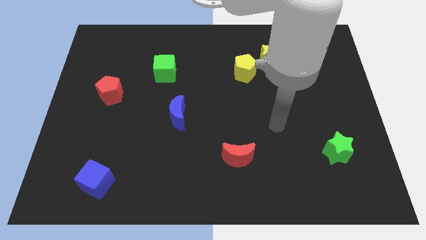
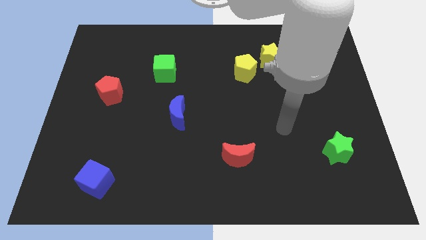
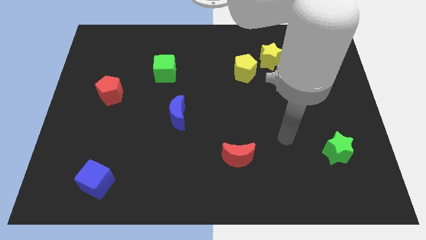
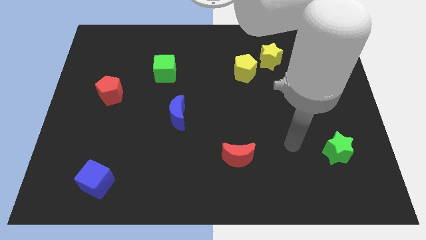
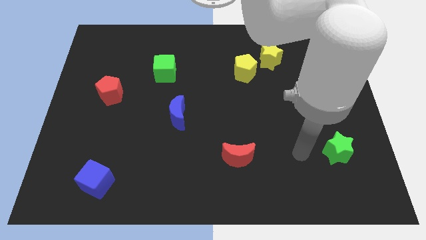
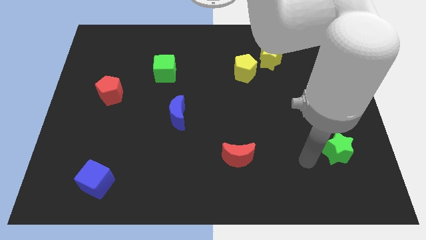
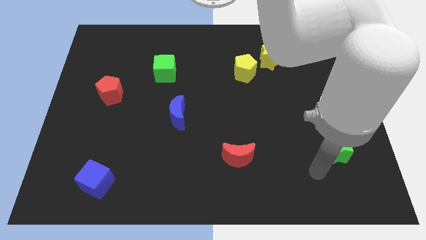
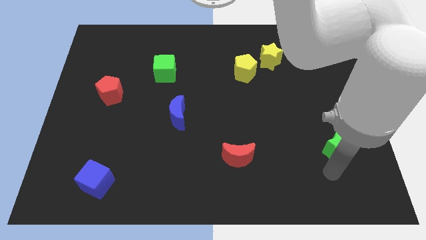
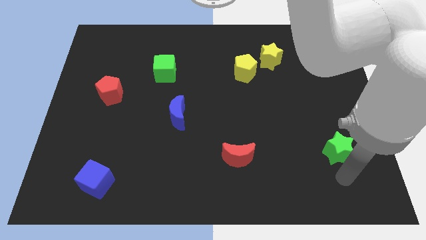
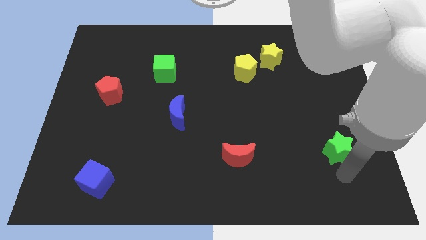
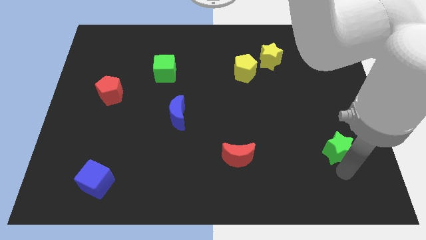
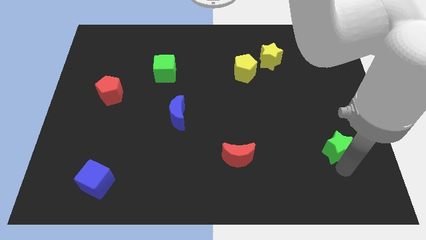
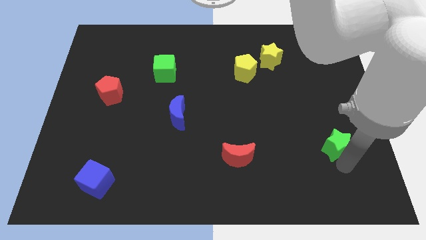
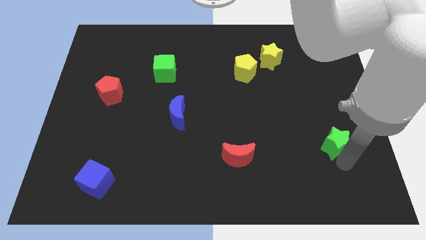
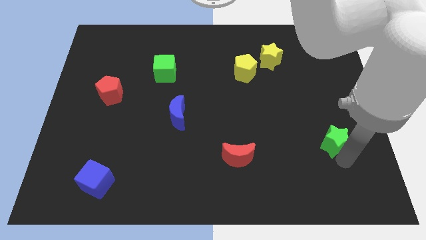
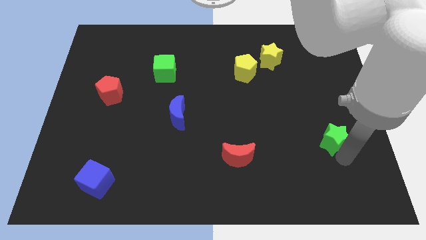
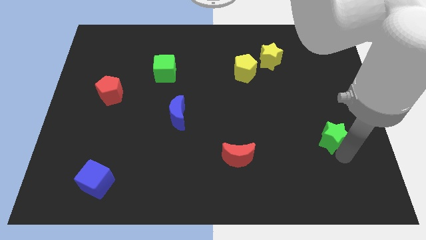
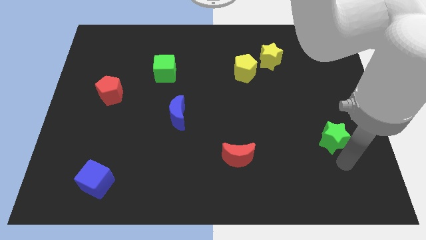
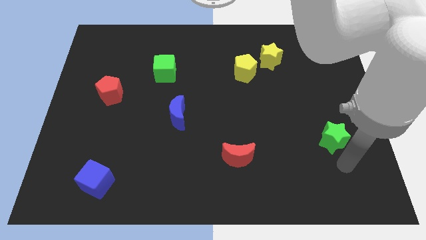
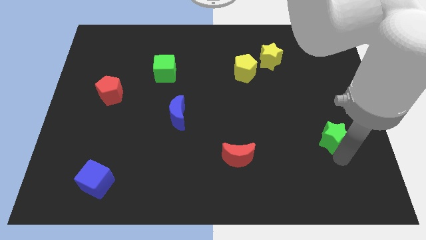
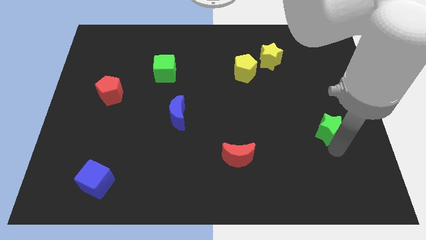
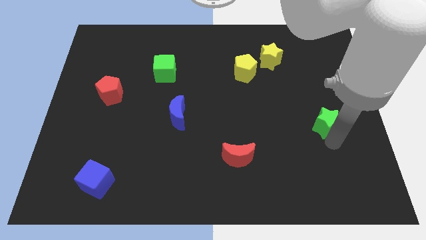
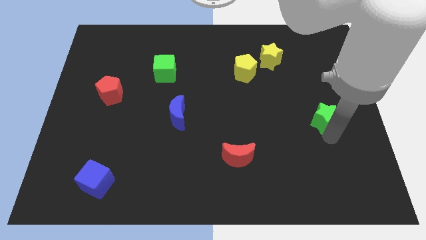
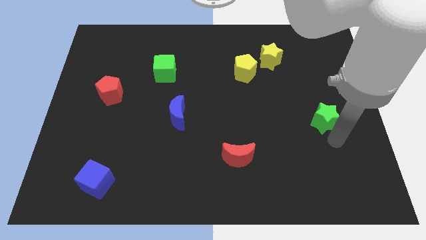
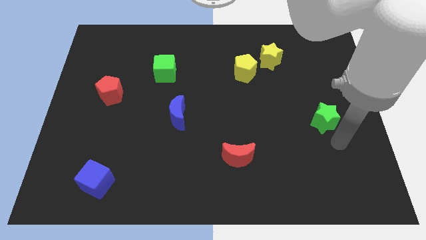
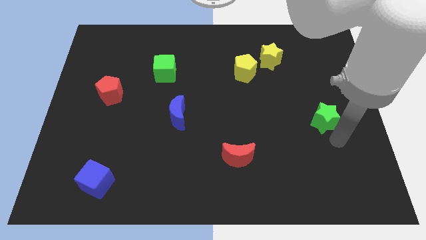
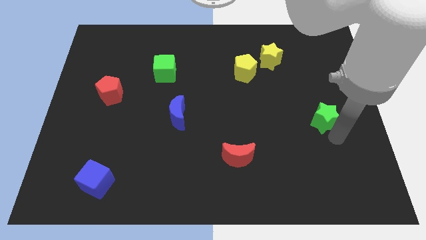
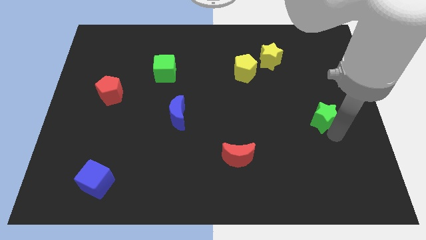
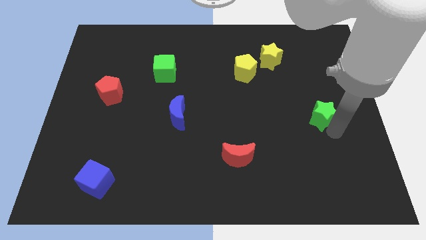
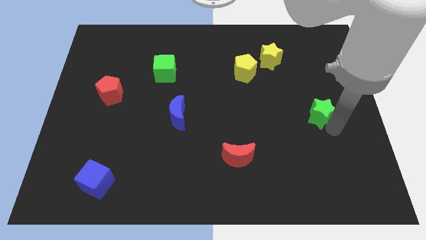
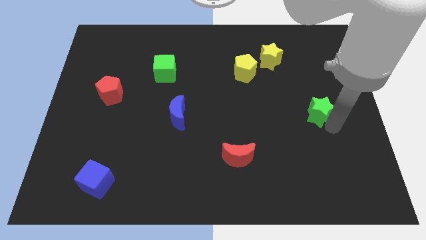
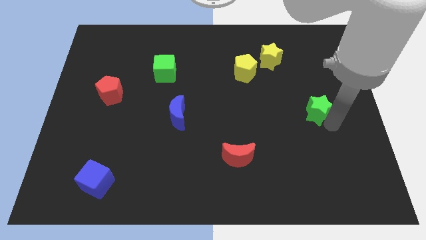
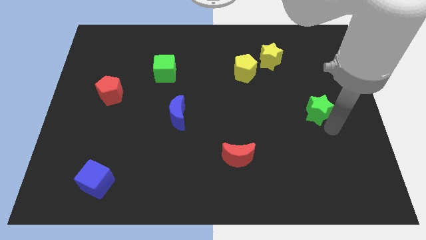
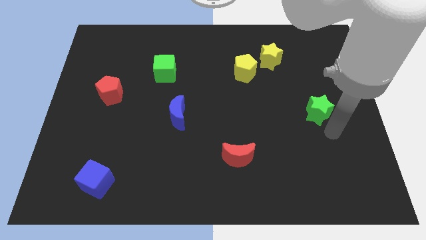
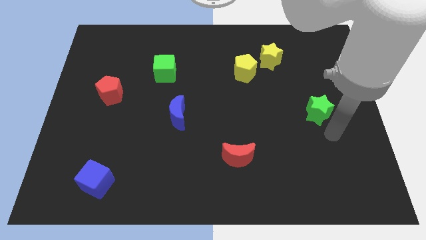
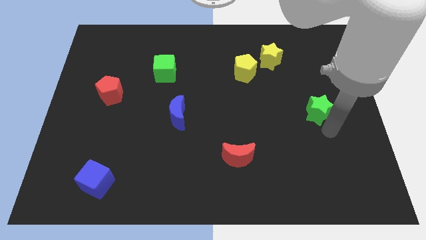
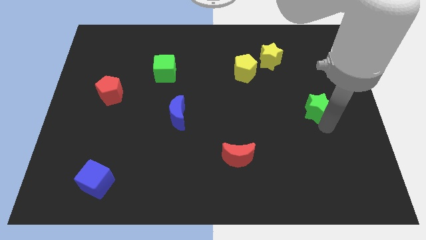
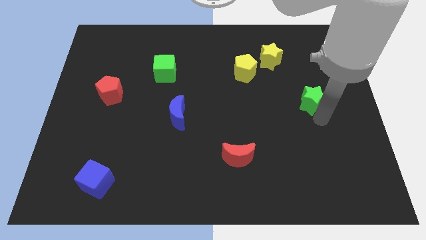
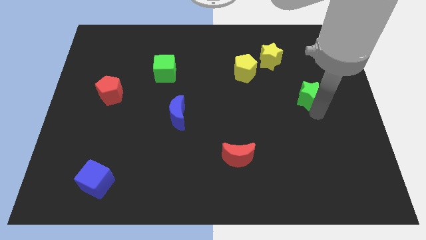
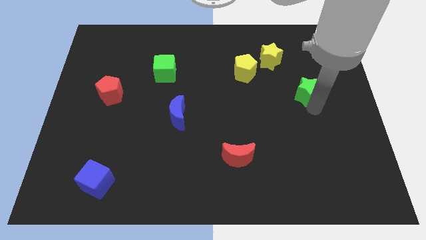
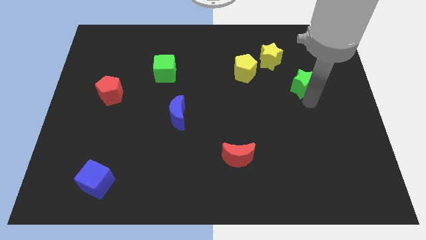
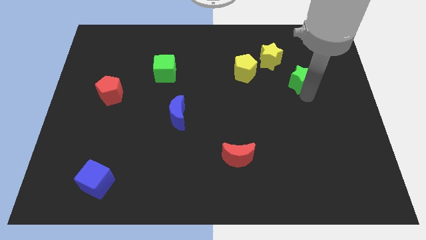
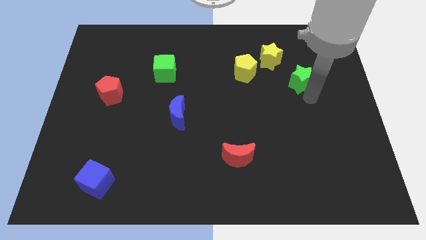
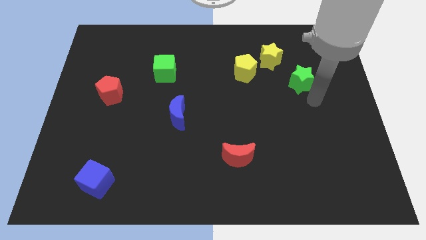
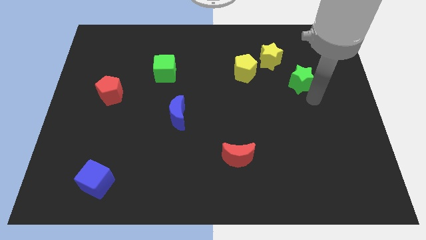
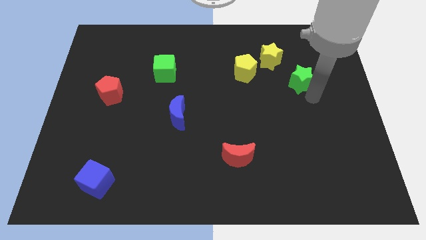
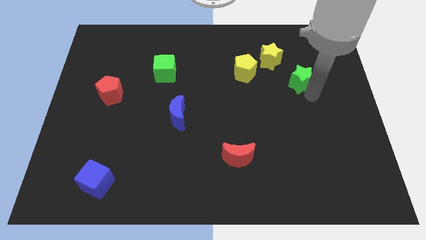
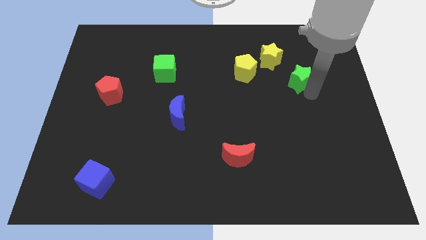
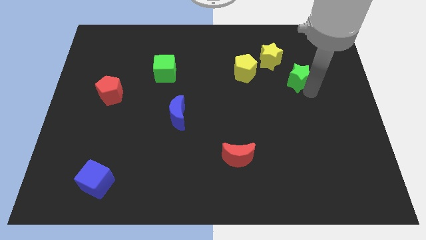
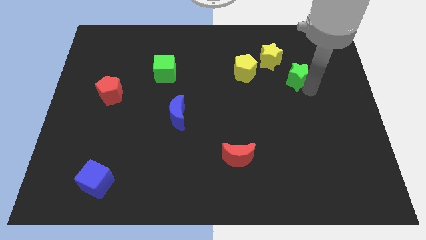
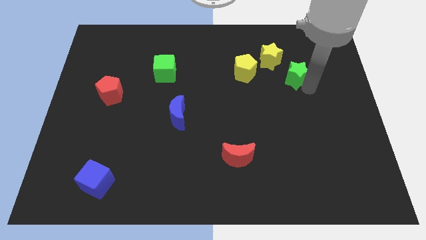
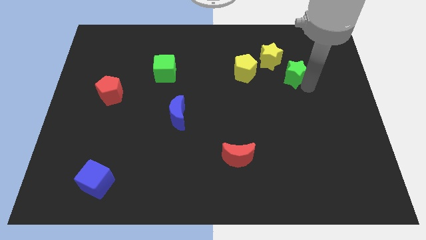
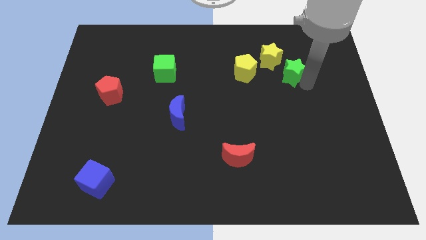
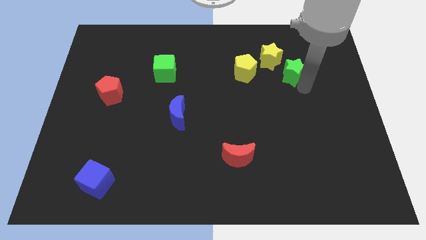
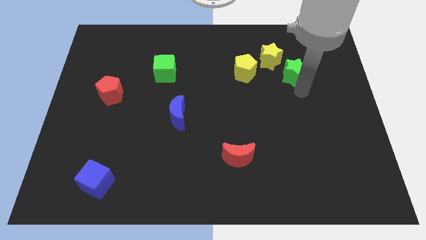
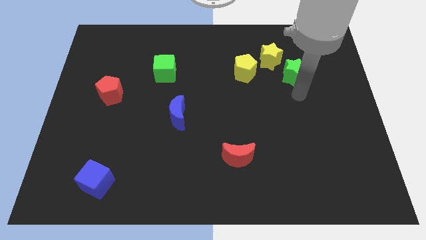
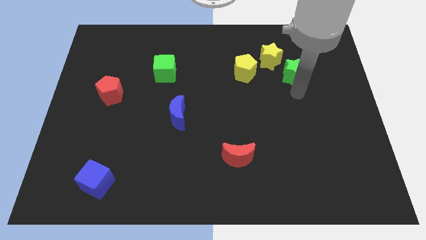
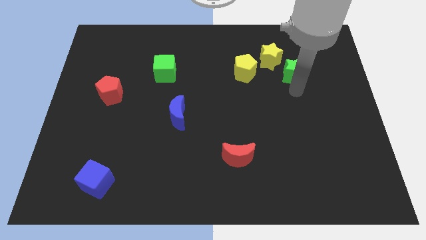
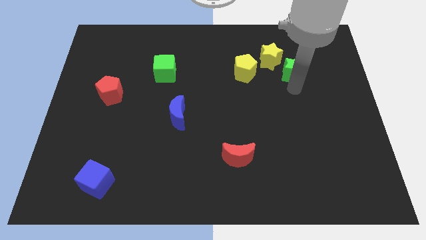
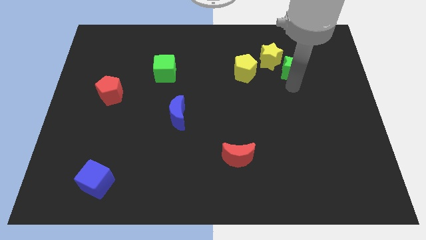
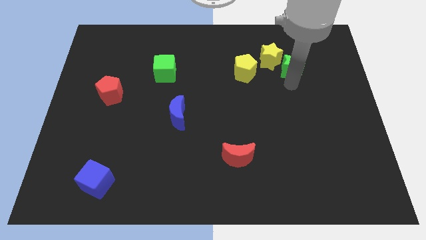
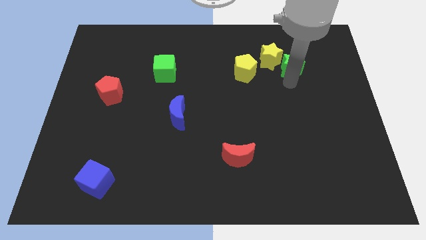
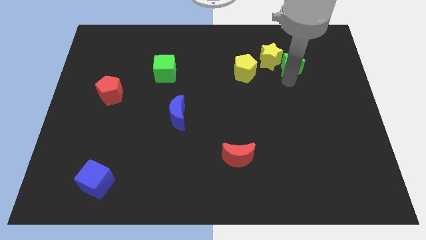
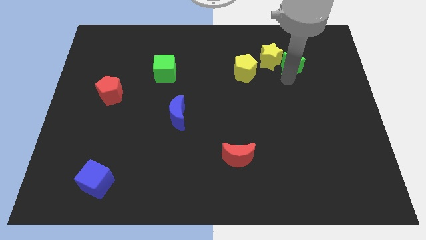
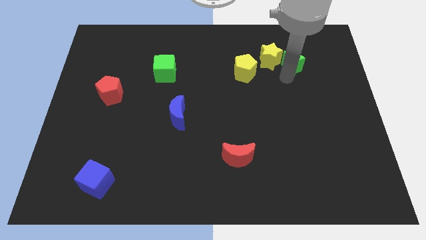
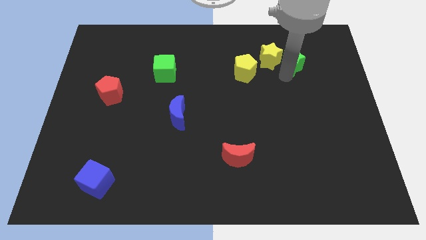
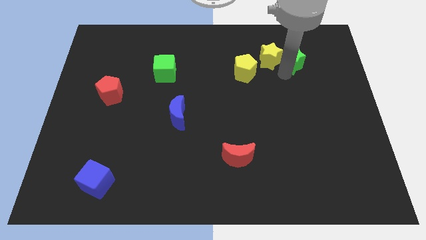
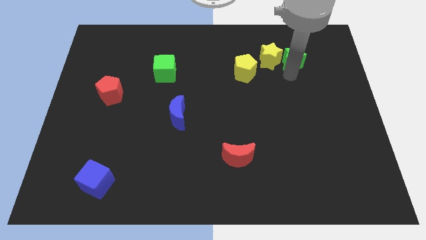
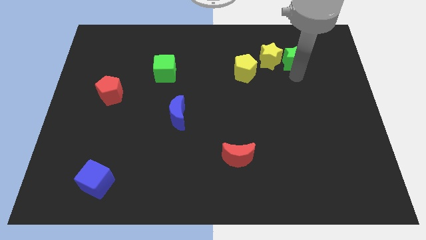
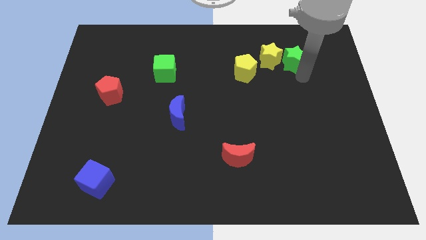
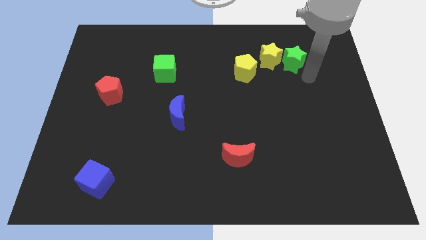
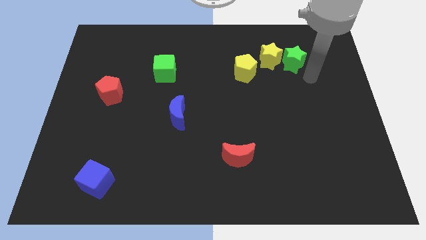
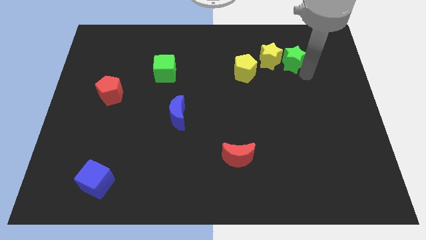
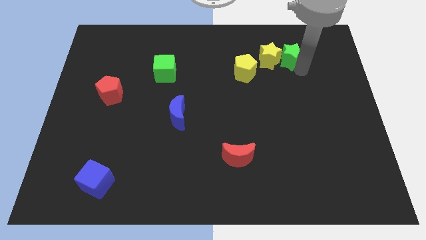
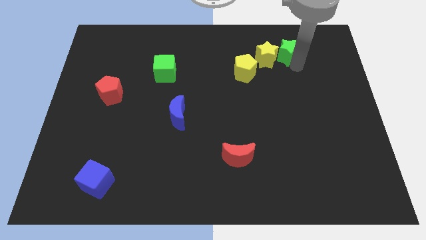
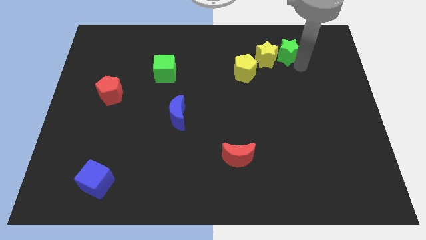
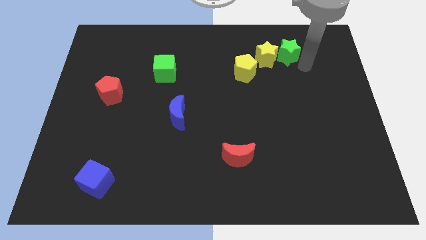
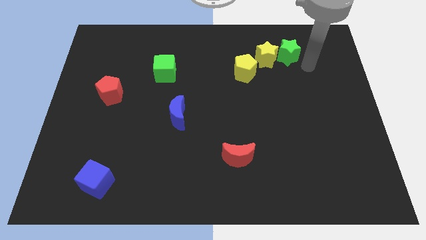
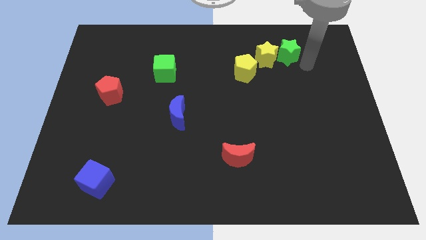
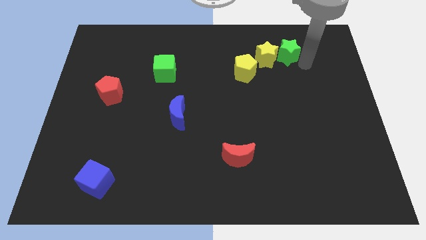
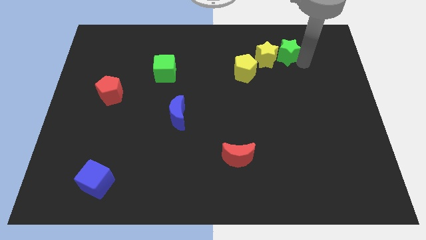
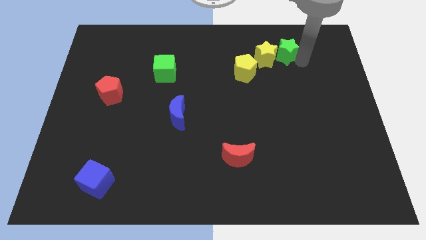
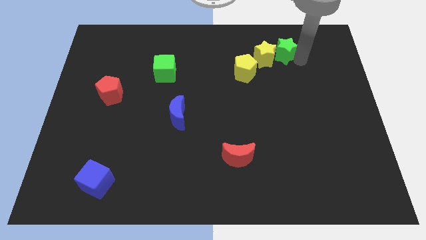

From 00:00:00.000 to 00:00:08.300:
put the green star diagonally up and to the right of the yellow pentagon
